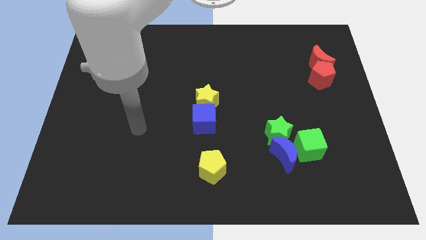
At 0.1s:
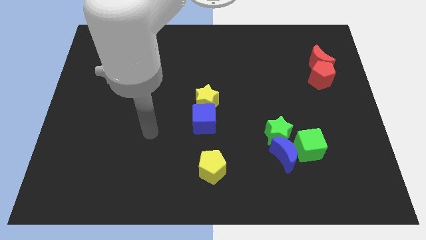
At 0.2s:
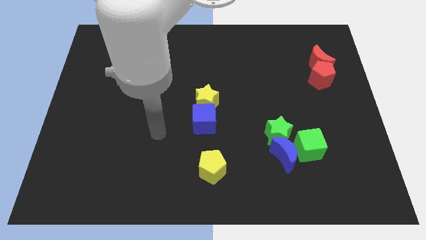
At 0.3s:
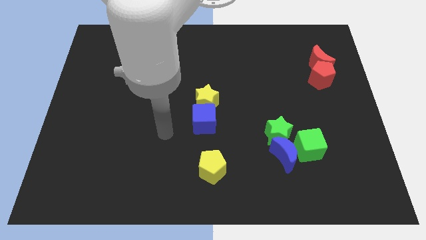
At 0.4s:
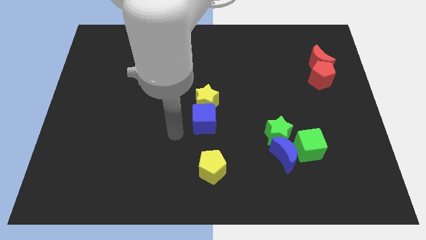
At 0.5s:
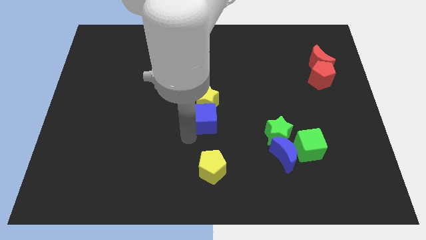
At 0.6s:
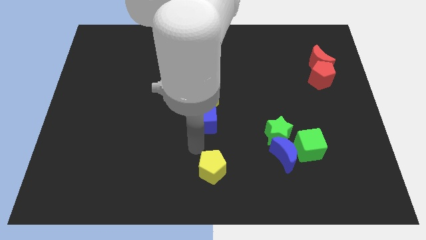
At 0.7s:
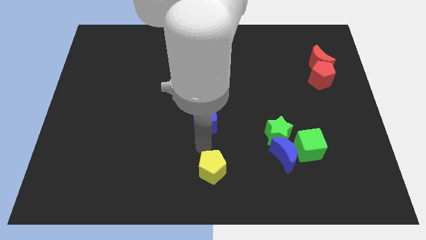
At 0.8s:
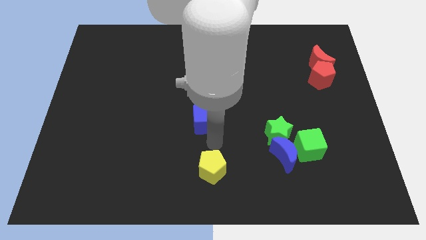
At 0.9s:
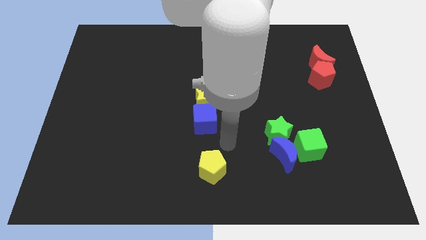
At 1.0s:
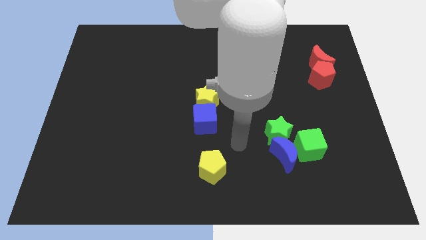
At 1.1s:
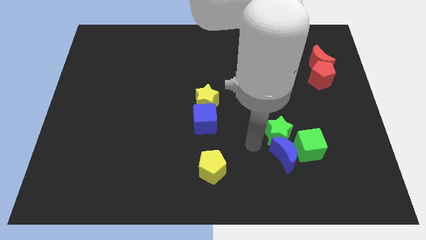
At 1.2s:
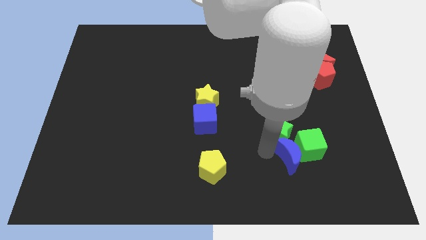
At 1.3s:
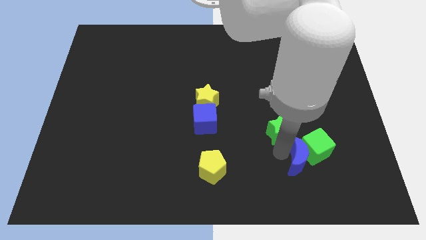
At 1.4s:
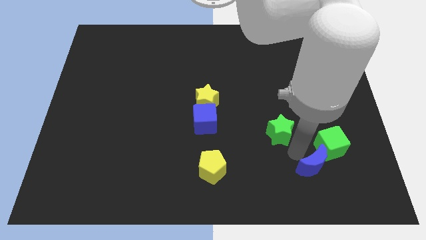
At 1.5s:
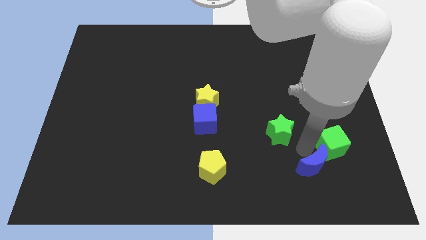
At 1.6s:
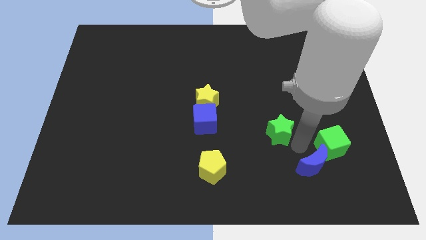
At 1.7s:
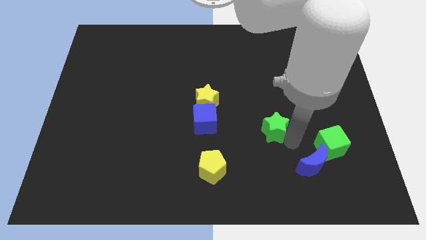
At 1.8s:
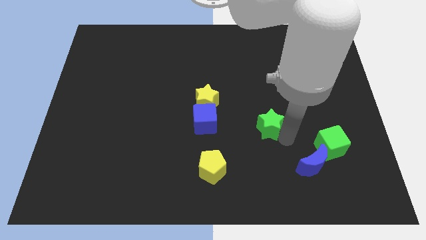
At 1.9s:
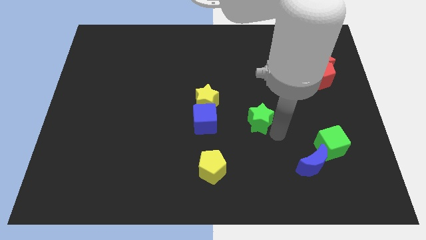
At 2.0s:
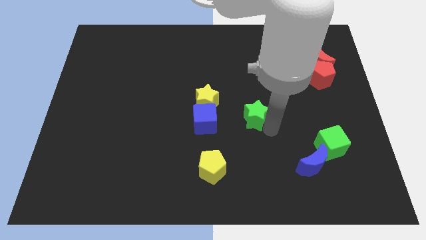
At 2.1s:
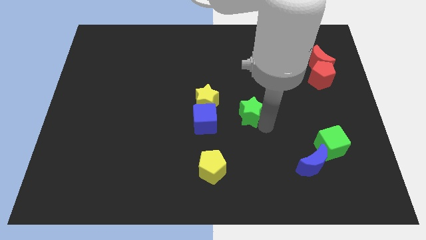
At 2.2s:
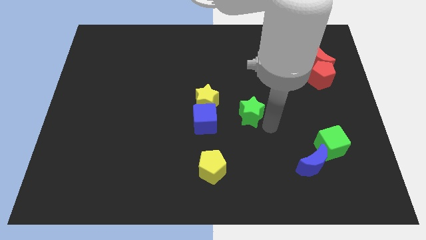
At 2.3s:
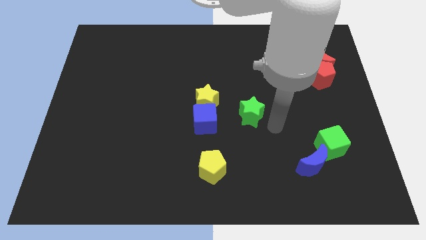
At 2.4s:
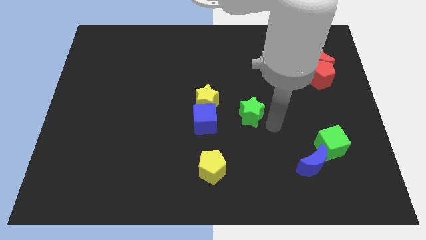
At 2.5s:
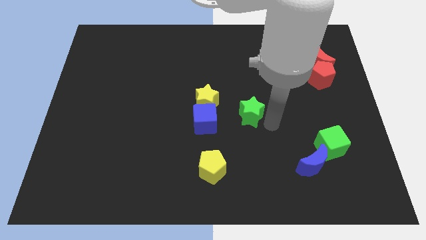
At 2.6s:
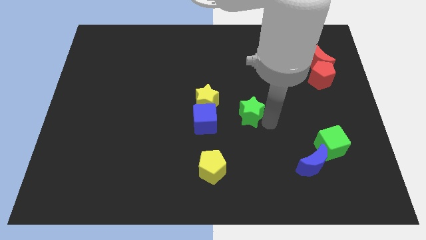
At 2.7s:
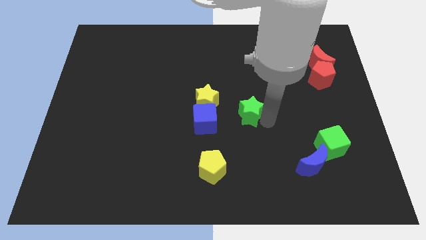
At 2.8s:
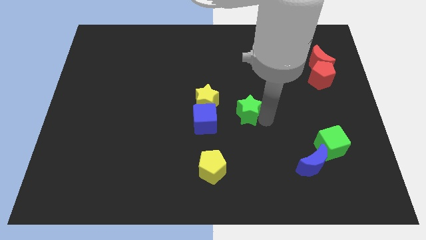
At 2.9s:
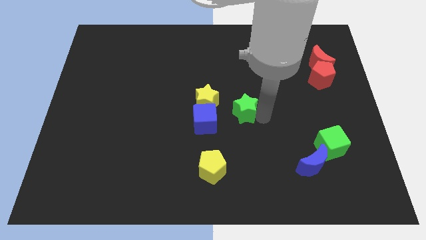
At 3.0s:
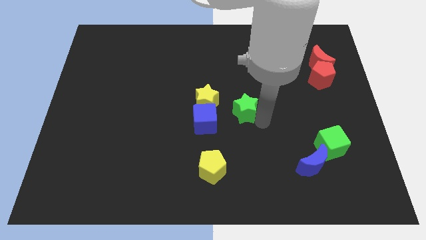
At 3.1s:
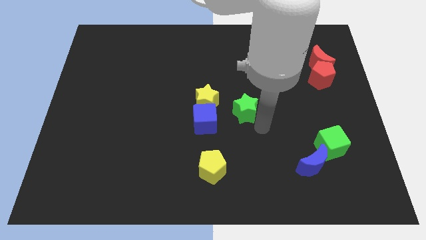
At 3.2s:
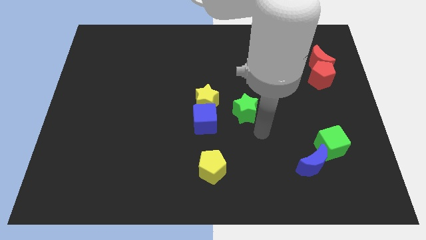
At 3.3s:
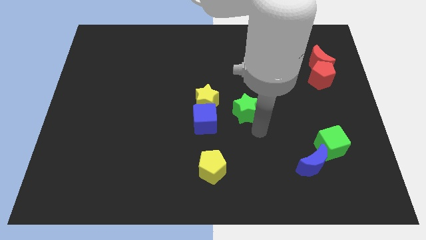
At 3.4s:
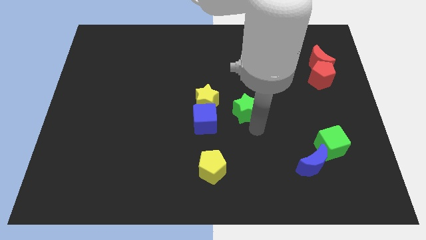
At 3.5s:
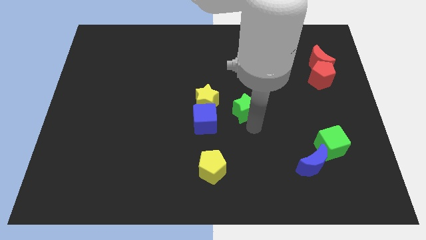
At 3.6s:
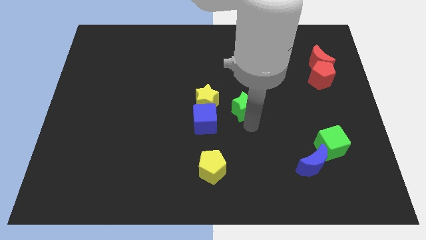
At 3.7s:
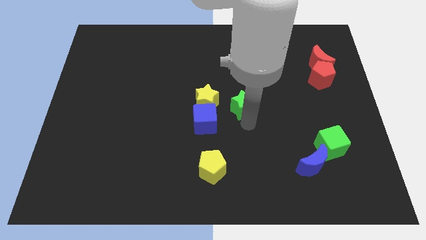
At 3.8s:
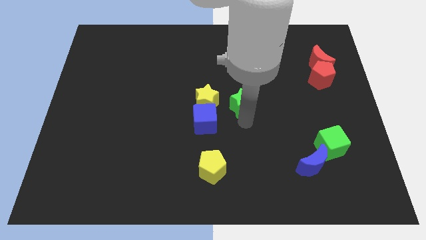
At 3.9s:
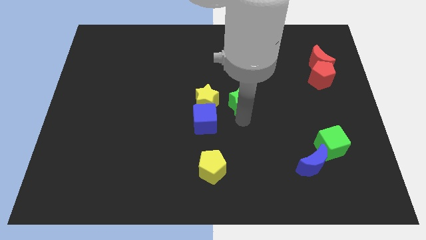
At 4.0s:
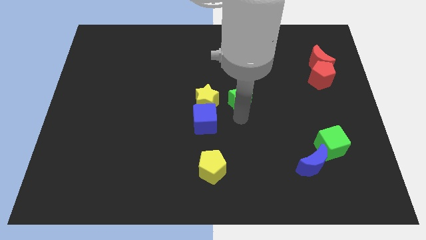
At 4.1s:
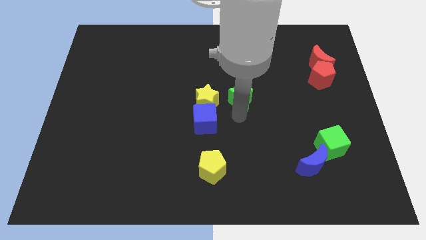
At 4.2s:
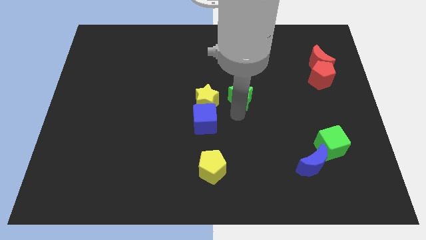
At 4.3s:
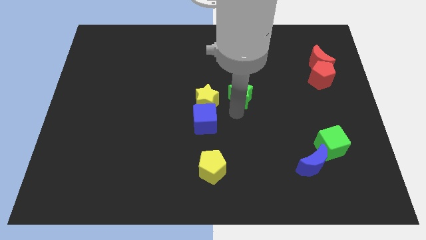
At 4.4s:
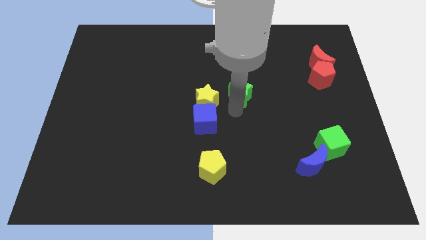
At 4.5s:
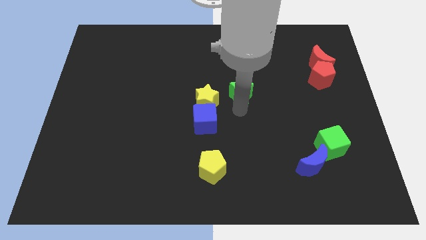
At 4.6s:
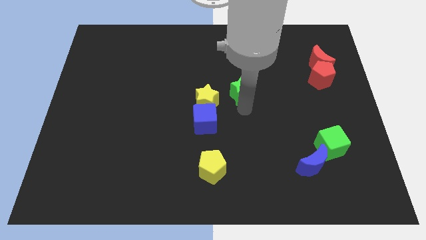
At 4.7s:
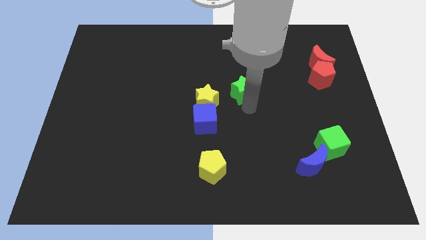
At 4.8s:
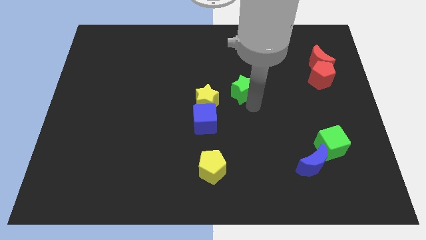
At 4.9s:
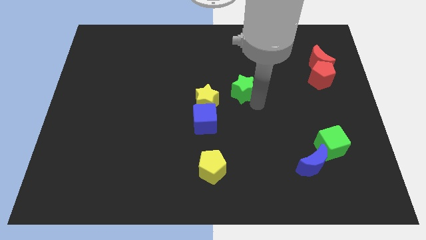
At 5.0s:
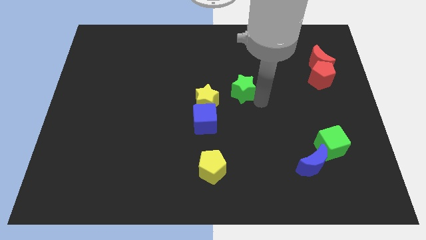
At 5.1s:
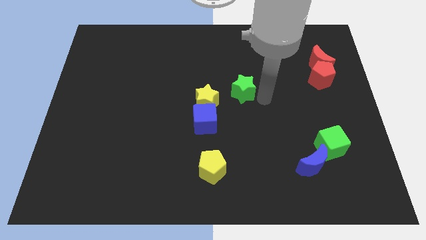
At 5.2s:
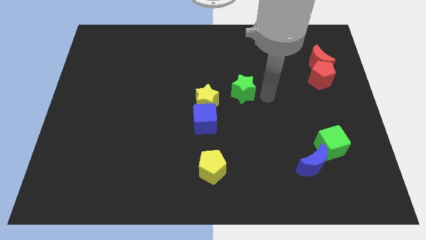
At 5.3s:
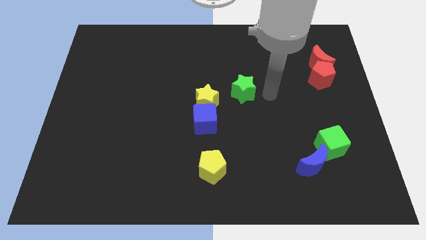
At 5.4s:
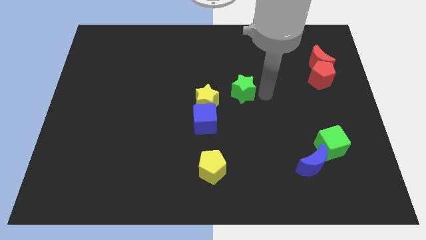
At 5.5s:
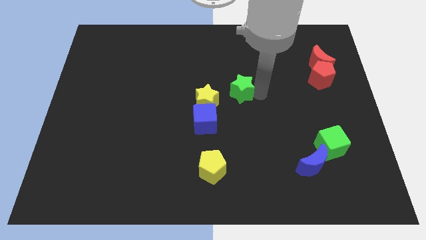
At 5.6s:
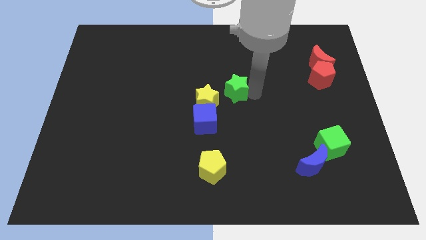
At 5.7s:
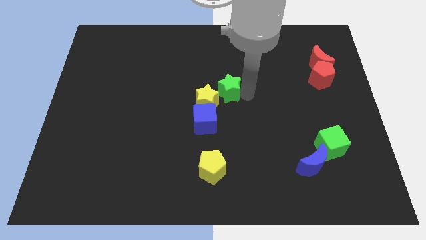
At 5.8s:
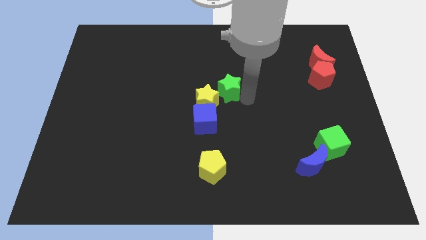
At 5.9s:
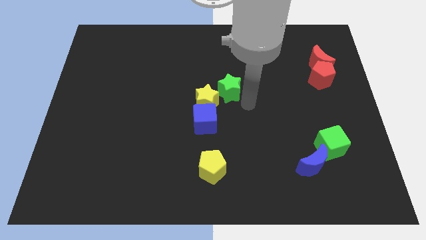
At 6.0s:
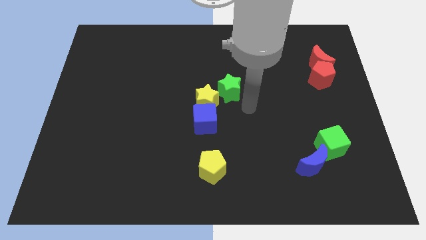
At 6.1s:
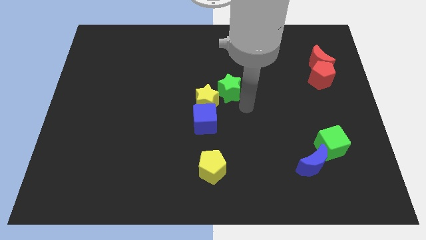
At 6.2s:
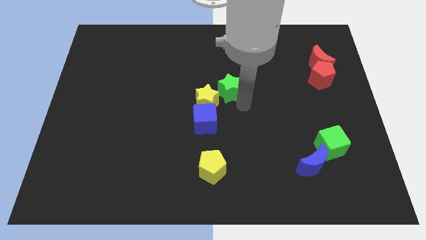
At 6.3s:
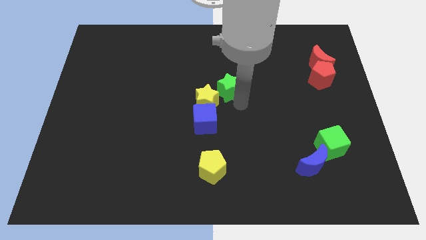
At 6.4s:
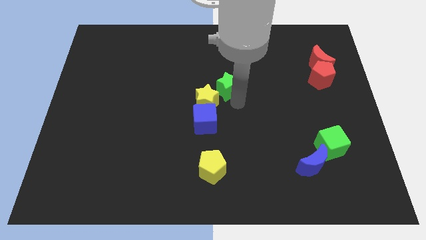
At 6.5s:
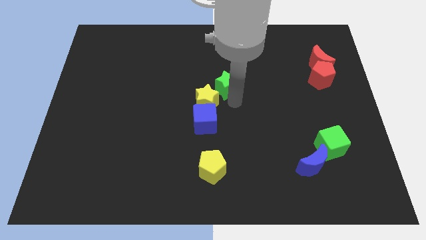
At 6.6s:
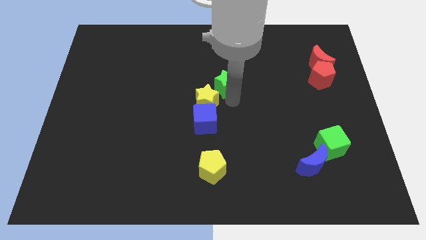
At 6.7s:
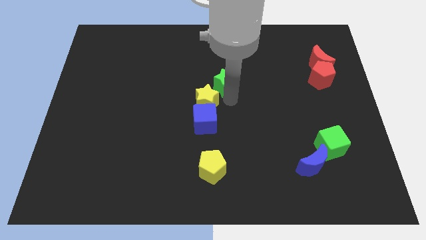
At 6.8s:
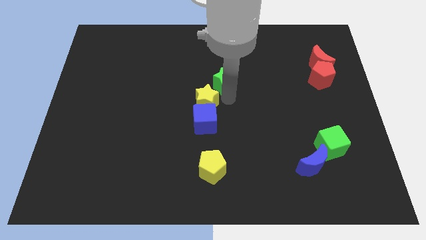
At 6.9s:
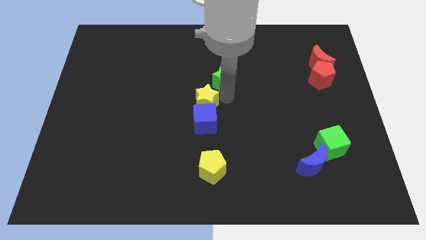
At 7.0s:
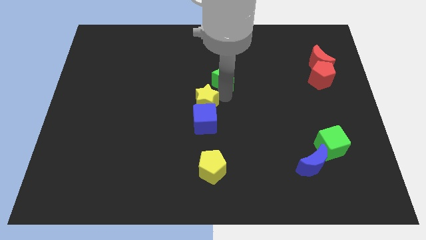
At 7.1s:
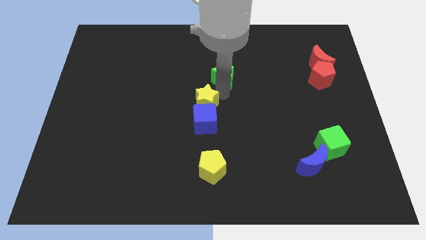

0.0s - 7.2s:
slide the green star upwards and to the left diagonally

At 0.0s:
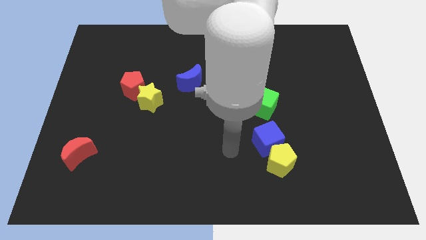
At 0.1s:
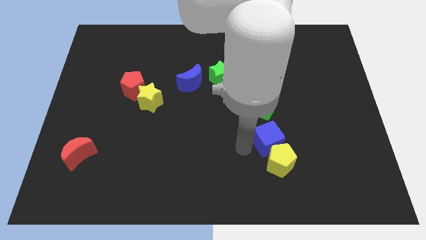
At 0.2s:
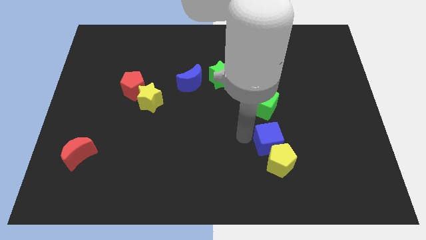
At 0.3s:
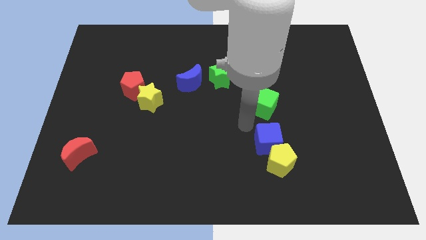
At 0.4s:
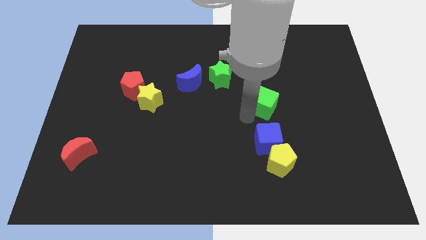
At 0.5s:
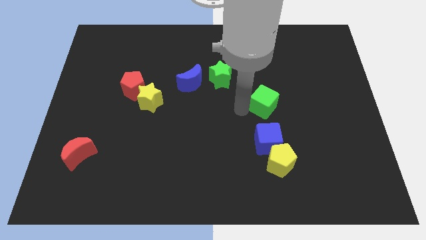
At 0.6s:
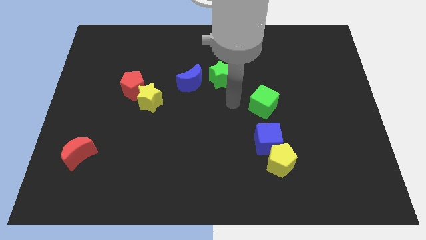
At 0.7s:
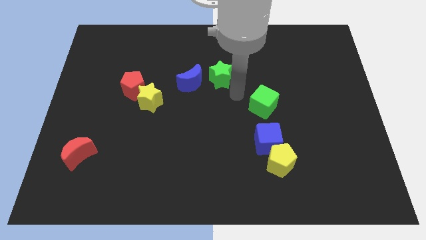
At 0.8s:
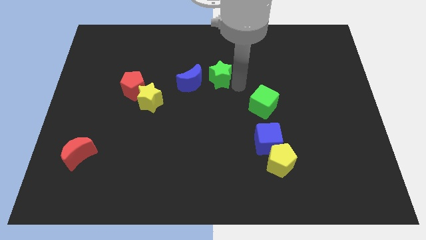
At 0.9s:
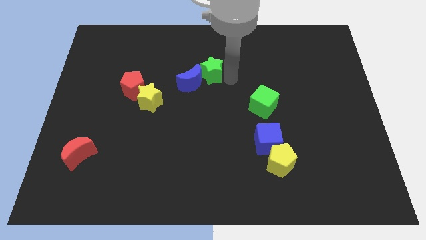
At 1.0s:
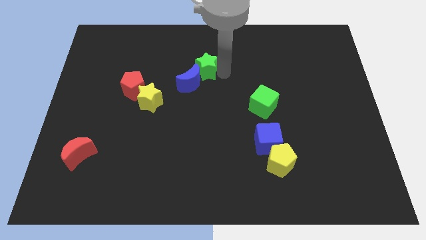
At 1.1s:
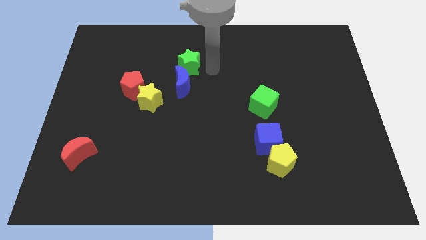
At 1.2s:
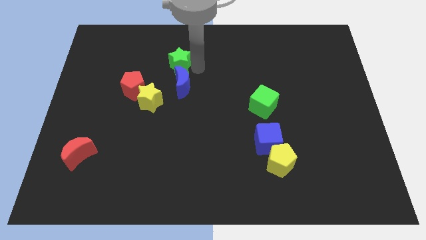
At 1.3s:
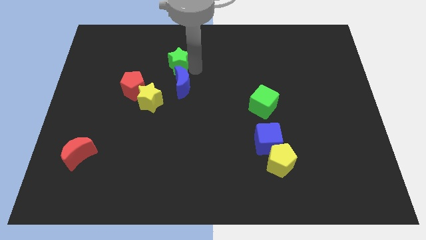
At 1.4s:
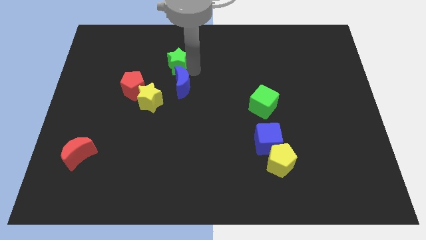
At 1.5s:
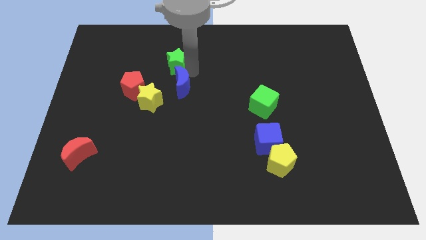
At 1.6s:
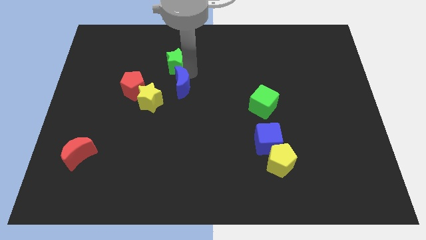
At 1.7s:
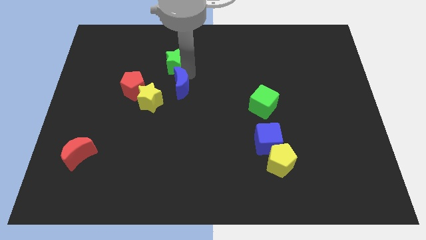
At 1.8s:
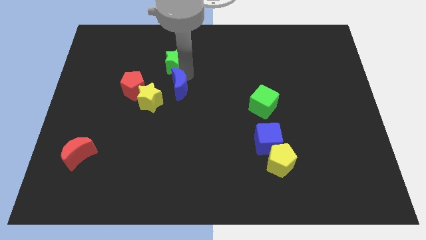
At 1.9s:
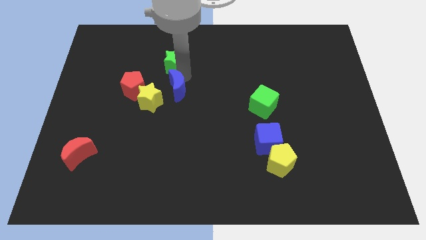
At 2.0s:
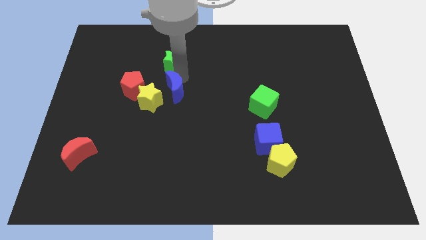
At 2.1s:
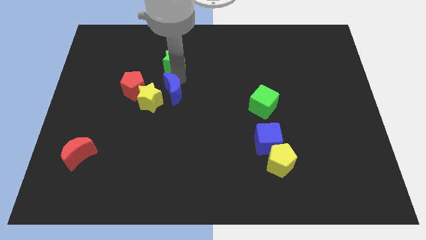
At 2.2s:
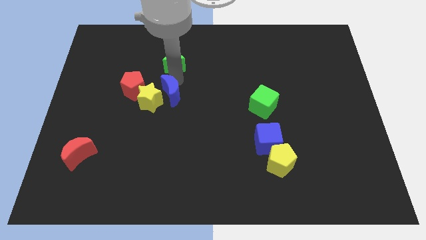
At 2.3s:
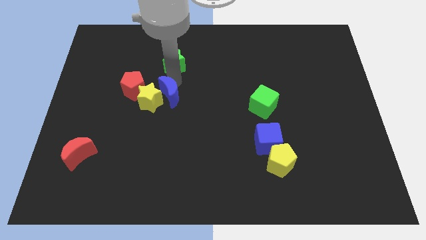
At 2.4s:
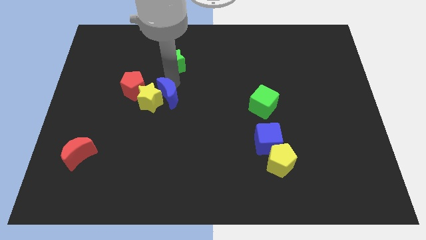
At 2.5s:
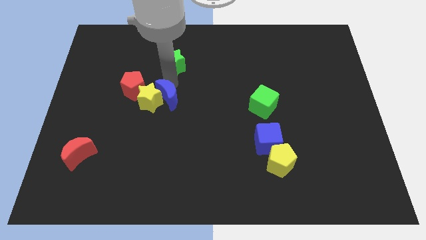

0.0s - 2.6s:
slide the blue moon slightly downwards and to the left diagonally
